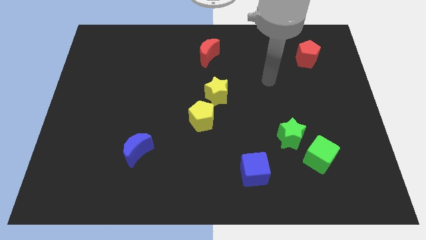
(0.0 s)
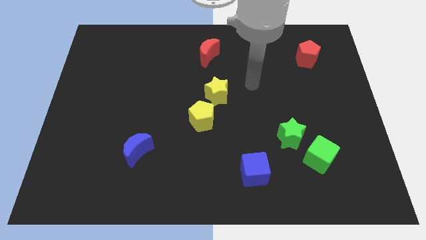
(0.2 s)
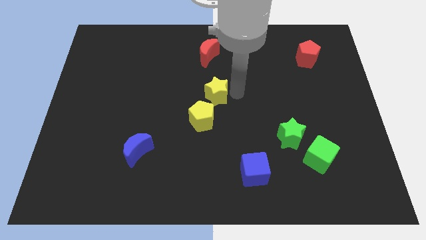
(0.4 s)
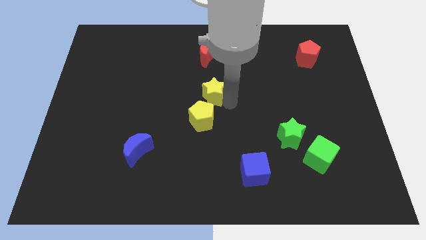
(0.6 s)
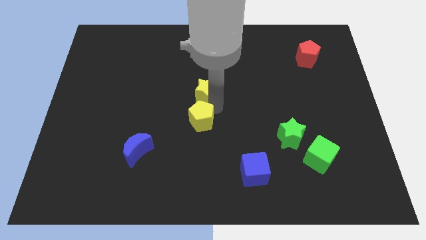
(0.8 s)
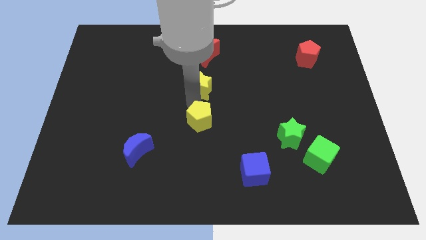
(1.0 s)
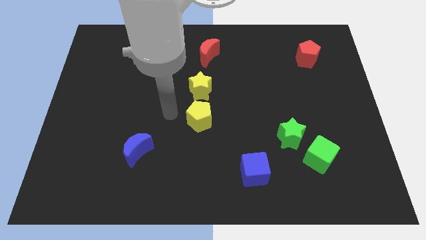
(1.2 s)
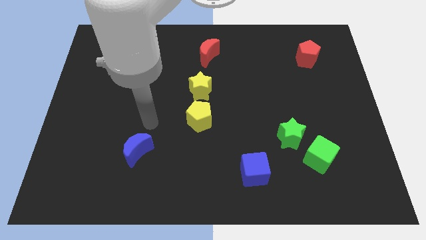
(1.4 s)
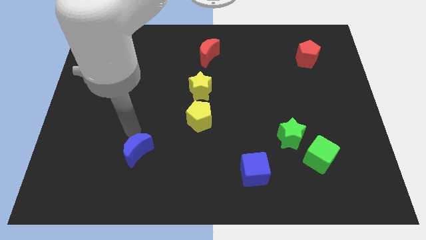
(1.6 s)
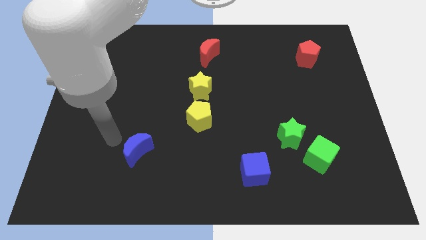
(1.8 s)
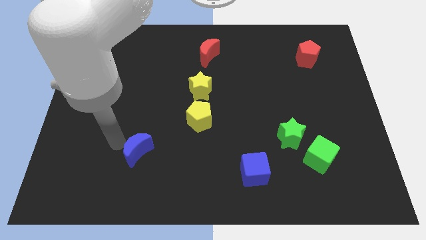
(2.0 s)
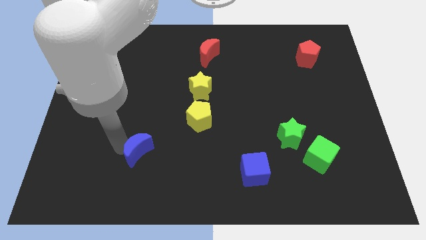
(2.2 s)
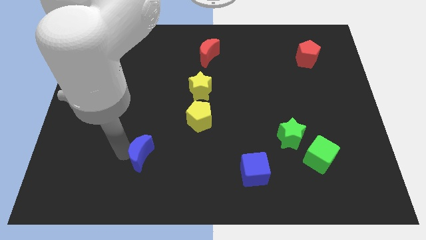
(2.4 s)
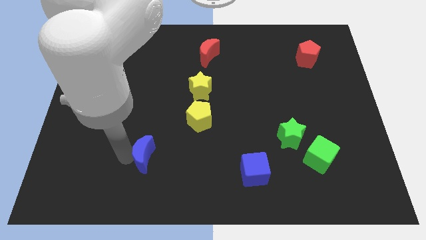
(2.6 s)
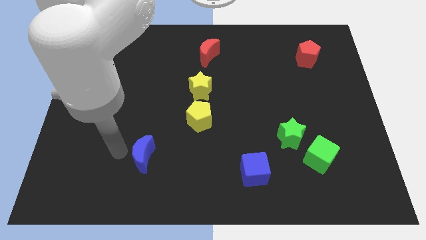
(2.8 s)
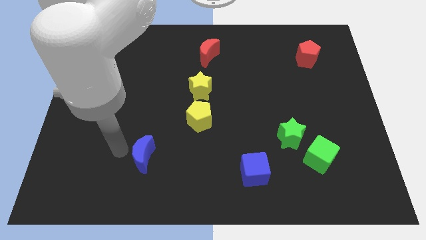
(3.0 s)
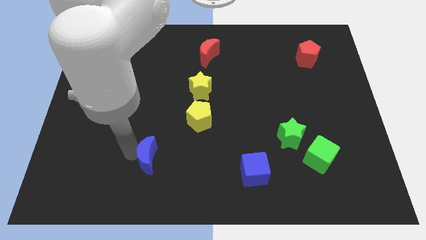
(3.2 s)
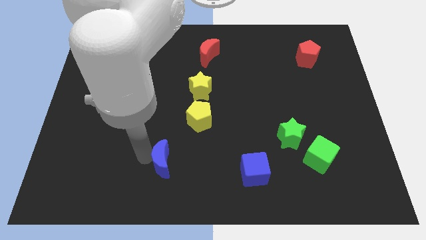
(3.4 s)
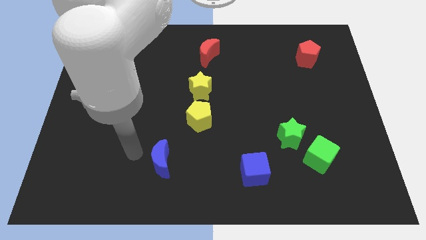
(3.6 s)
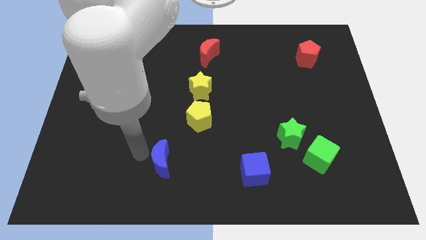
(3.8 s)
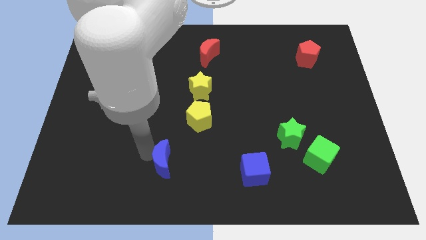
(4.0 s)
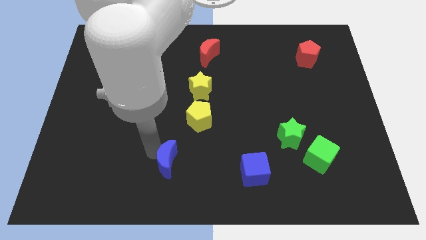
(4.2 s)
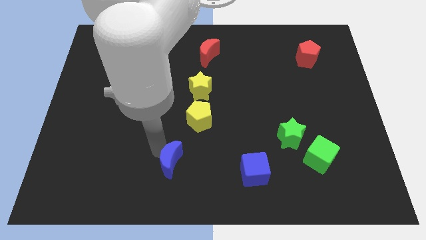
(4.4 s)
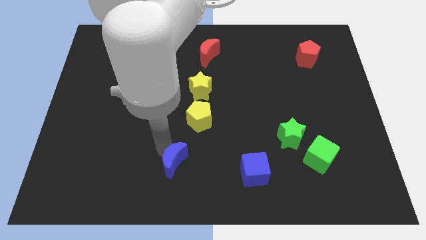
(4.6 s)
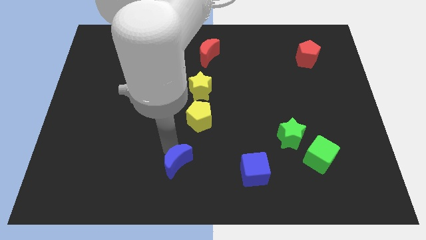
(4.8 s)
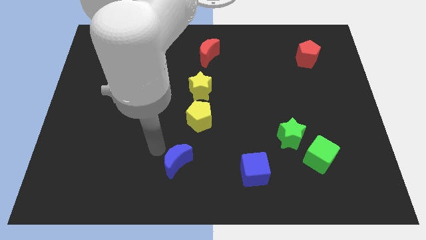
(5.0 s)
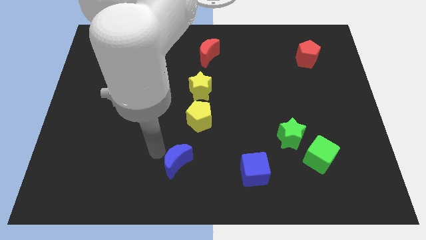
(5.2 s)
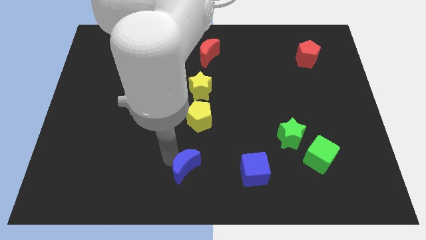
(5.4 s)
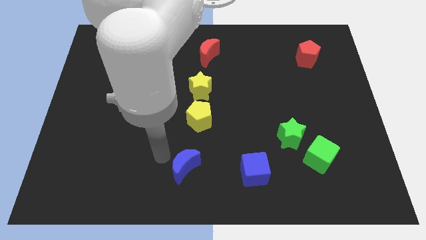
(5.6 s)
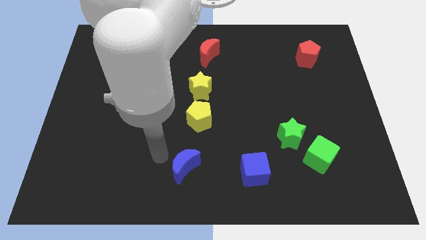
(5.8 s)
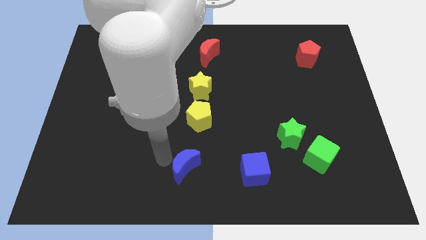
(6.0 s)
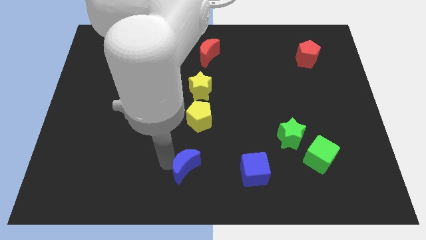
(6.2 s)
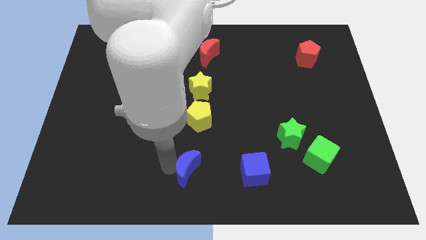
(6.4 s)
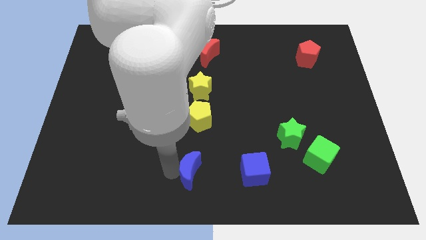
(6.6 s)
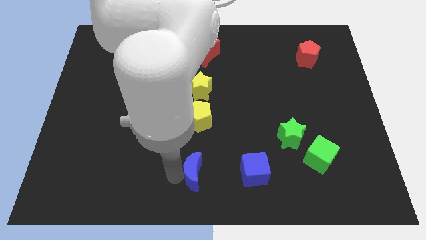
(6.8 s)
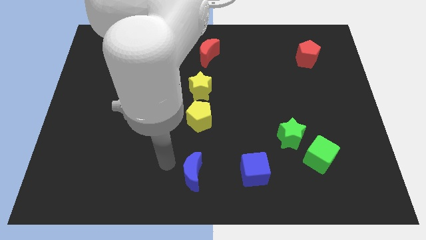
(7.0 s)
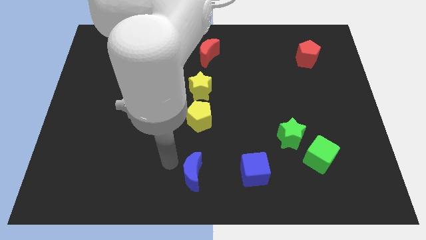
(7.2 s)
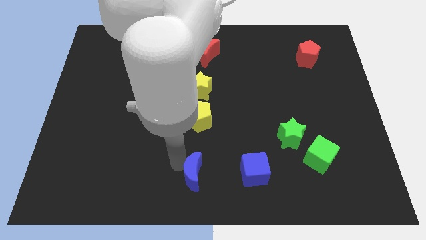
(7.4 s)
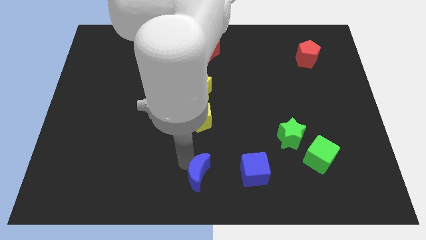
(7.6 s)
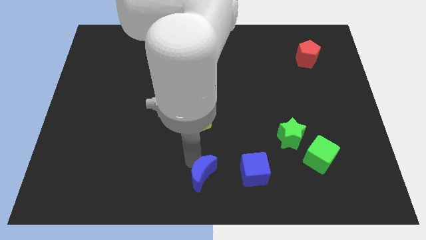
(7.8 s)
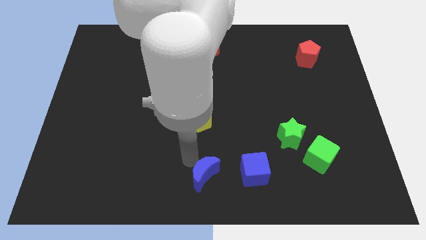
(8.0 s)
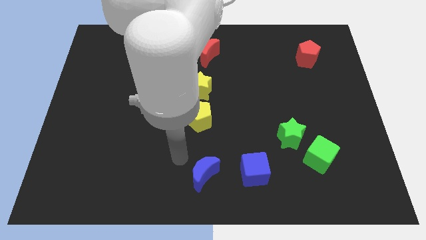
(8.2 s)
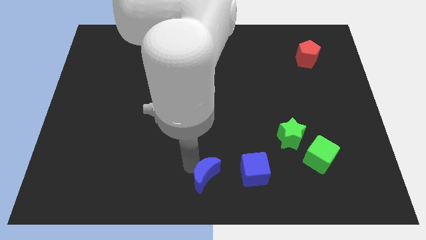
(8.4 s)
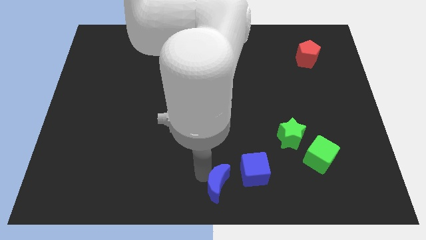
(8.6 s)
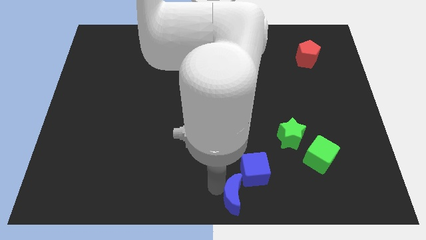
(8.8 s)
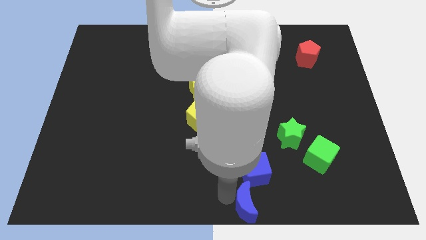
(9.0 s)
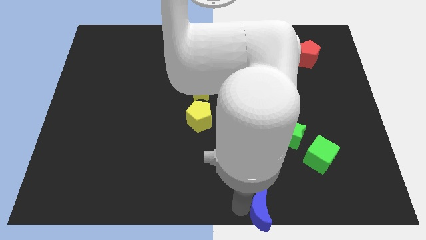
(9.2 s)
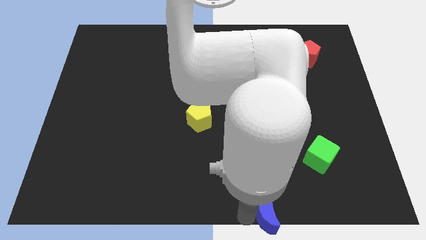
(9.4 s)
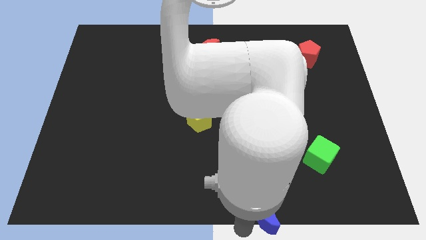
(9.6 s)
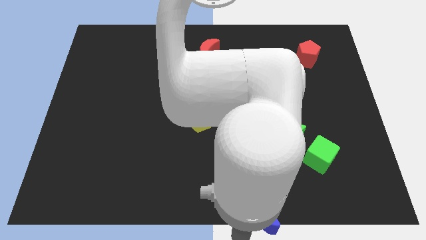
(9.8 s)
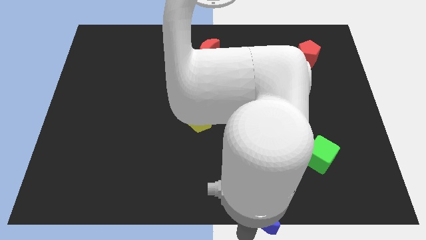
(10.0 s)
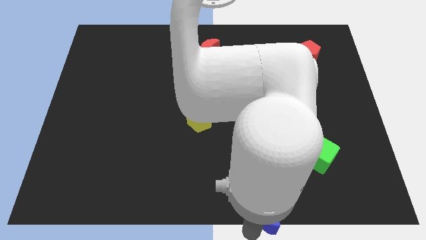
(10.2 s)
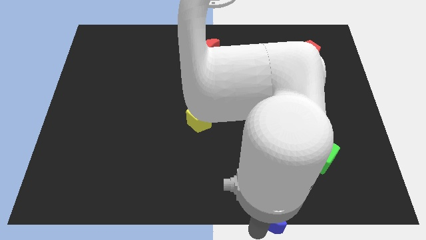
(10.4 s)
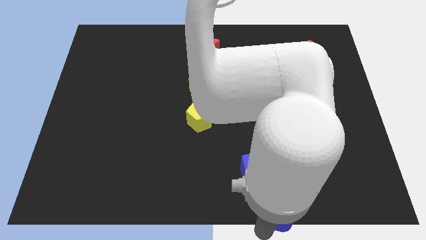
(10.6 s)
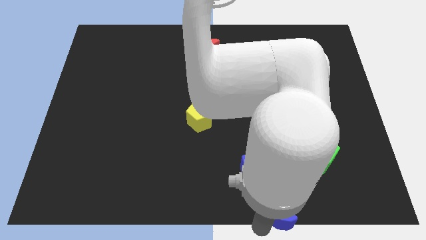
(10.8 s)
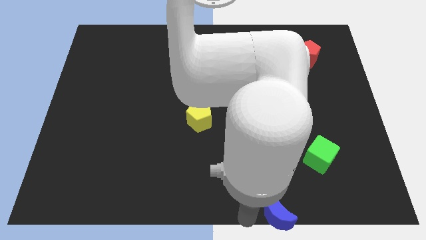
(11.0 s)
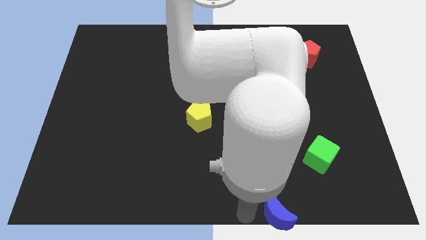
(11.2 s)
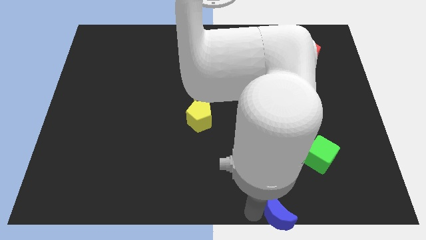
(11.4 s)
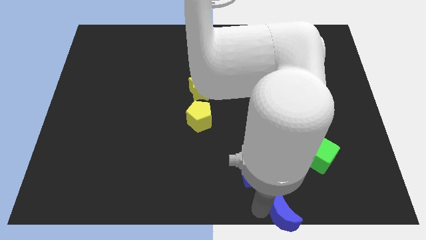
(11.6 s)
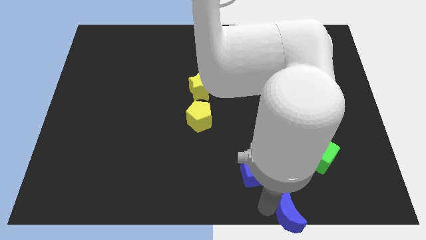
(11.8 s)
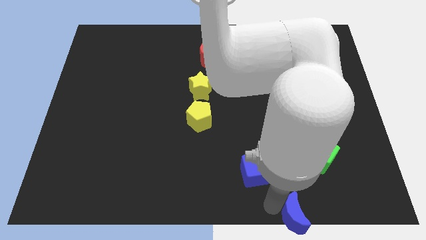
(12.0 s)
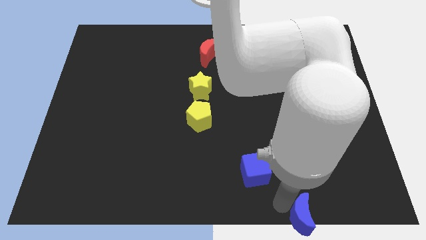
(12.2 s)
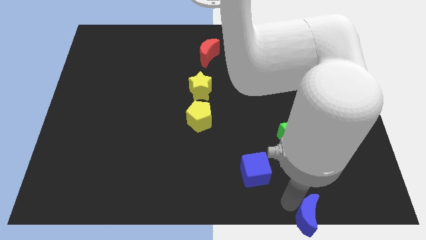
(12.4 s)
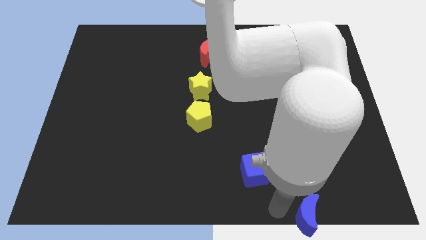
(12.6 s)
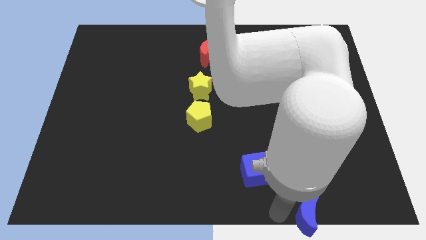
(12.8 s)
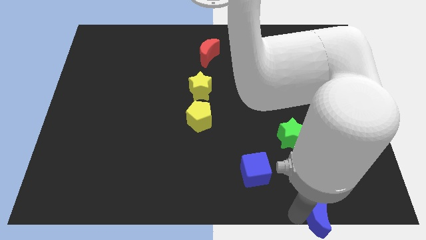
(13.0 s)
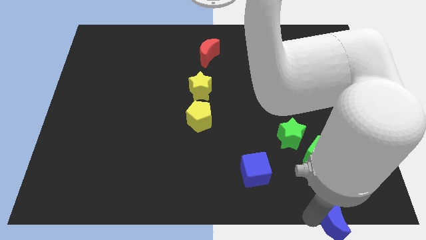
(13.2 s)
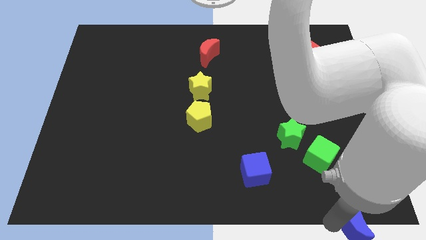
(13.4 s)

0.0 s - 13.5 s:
move the blue moon to the bottom right corner
